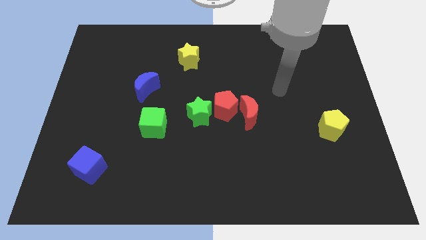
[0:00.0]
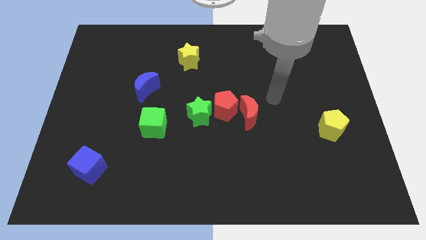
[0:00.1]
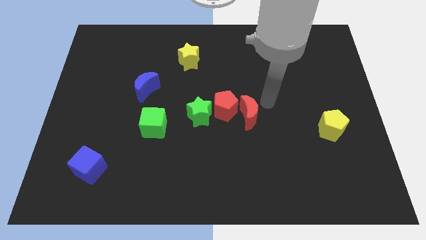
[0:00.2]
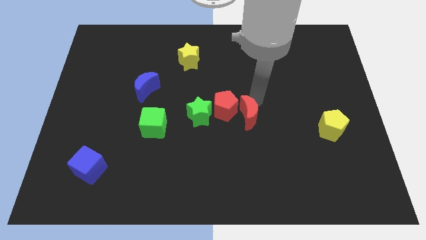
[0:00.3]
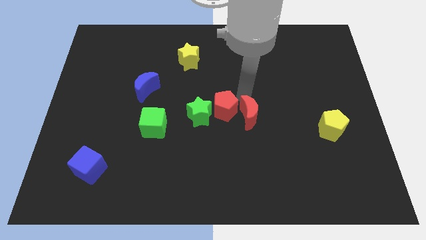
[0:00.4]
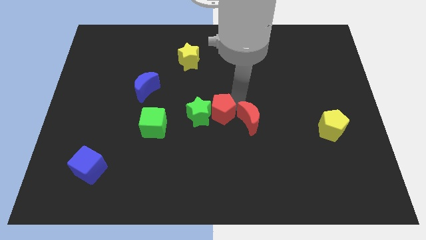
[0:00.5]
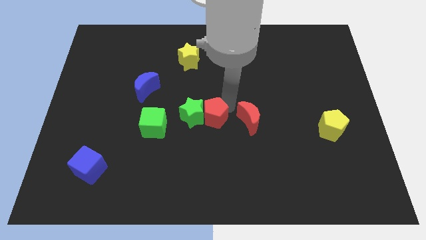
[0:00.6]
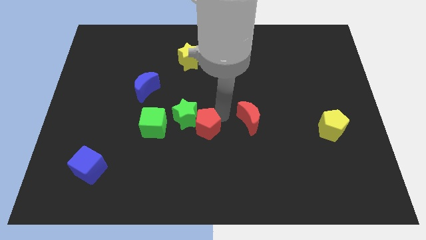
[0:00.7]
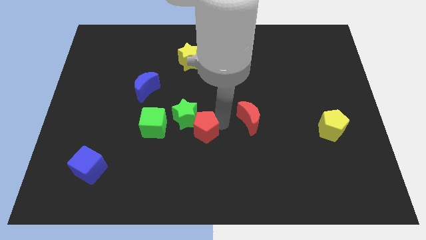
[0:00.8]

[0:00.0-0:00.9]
separate the red moon from the red pentagon

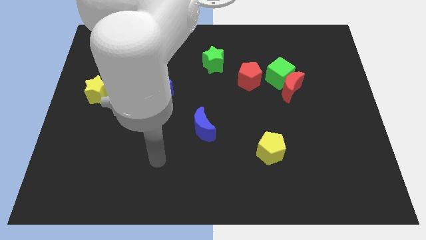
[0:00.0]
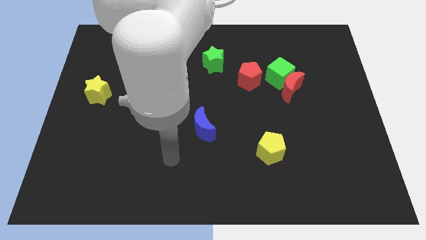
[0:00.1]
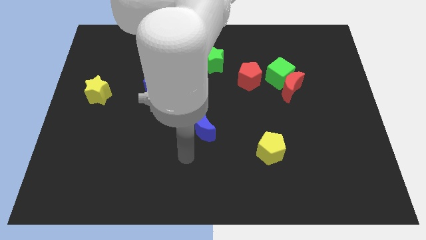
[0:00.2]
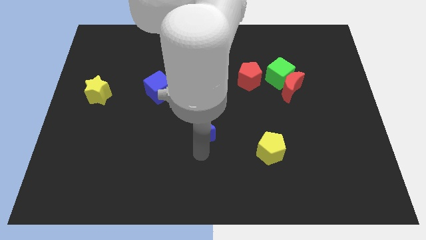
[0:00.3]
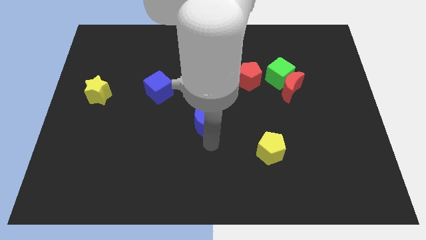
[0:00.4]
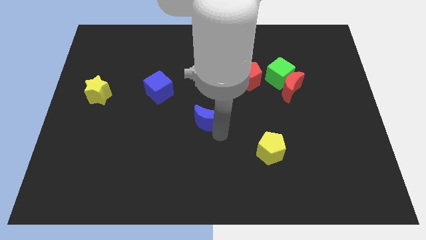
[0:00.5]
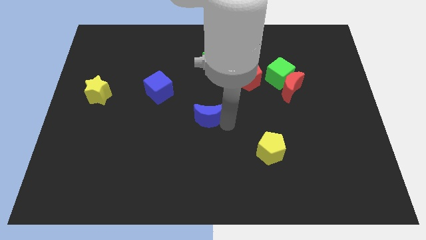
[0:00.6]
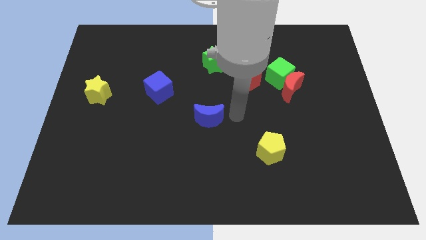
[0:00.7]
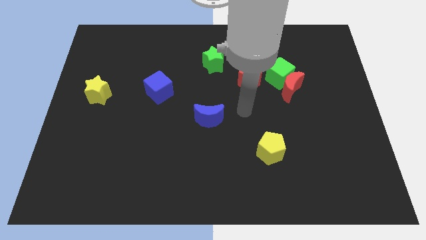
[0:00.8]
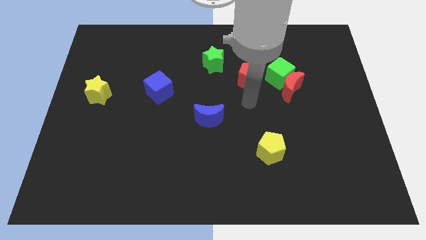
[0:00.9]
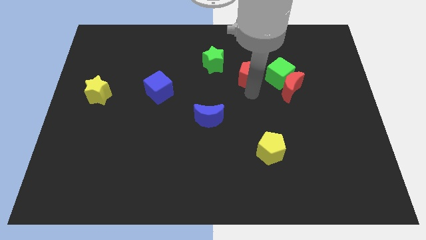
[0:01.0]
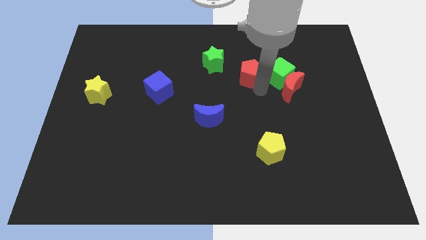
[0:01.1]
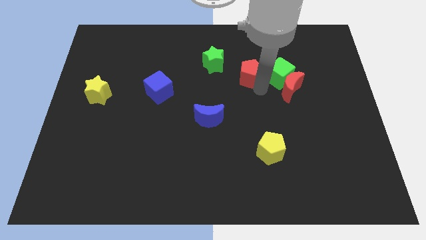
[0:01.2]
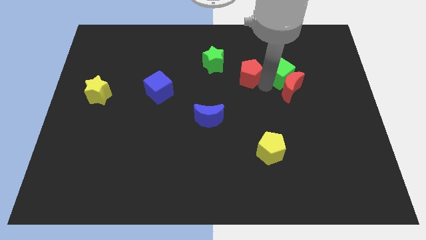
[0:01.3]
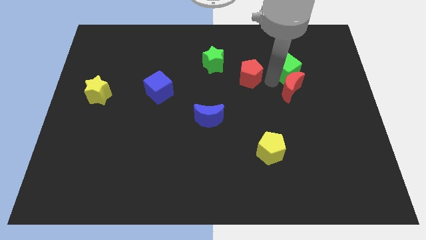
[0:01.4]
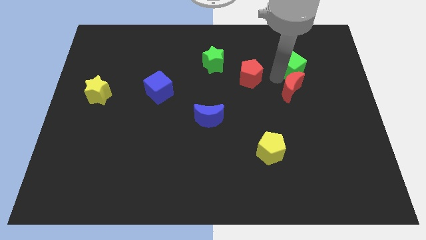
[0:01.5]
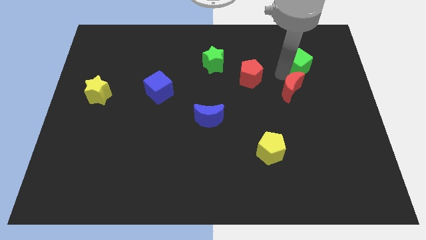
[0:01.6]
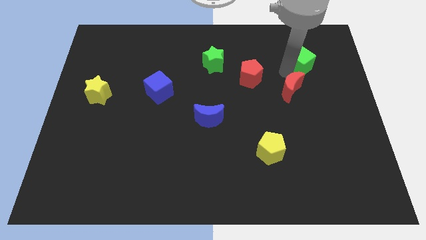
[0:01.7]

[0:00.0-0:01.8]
pull the green cube apart from the red moon and red pentagon

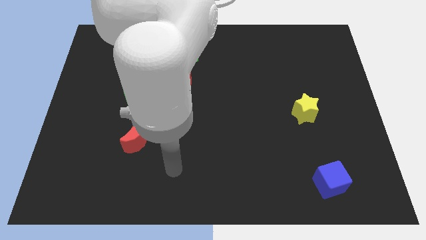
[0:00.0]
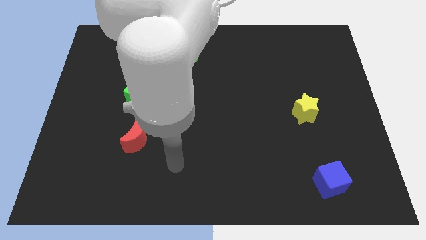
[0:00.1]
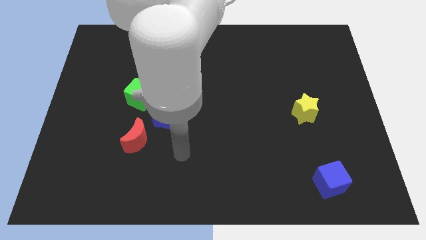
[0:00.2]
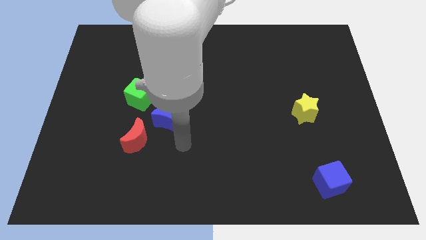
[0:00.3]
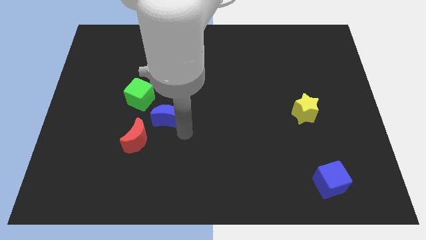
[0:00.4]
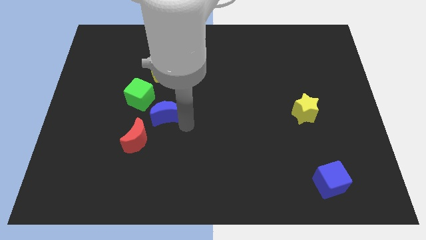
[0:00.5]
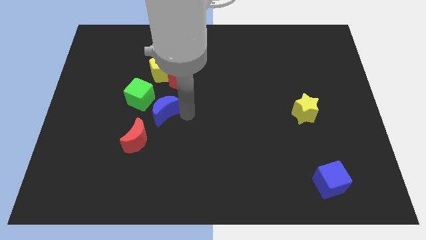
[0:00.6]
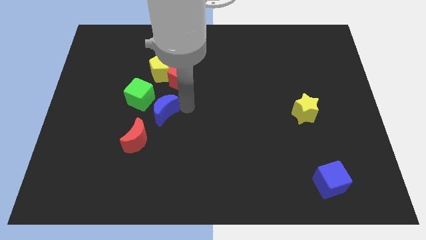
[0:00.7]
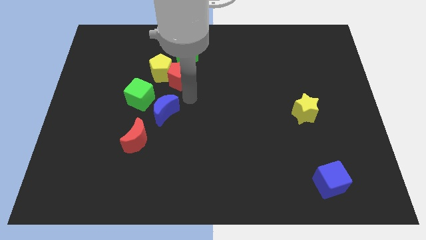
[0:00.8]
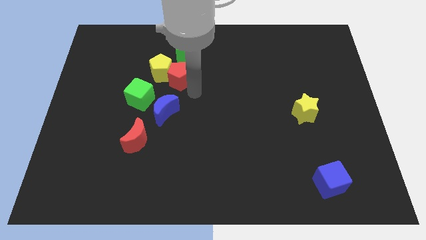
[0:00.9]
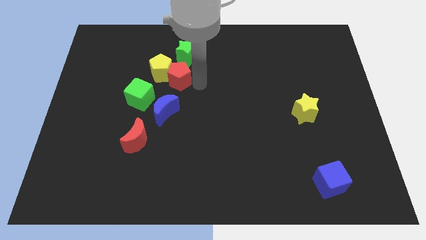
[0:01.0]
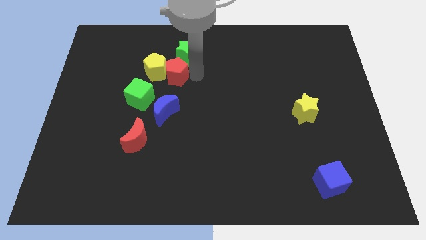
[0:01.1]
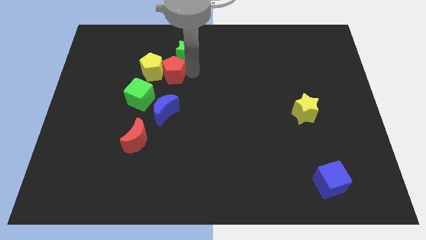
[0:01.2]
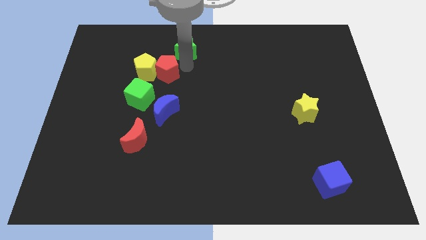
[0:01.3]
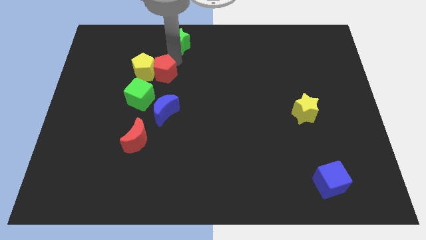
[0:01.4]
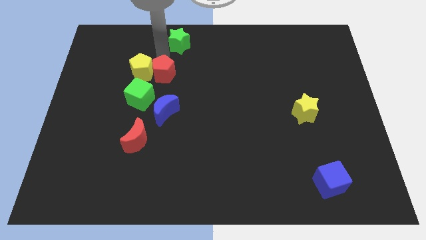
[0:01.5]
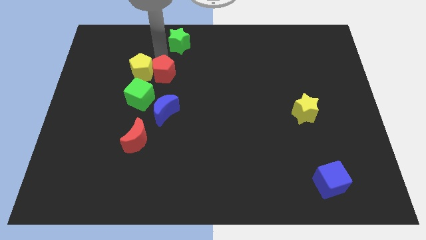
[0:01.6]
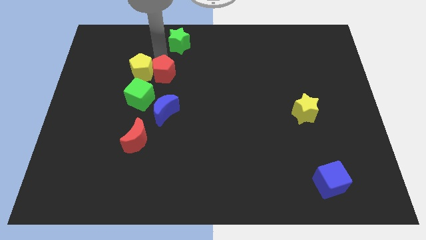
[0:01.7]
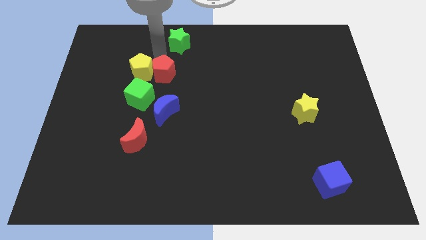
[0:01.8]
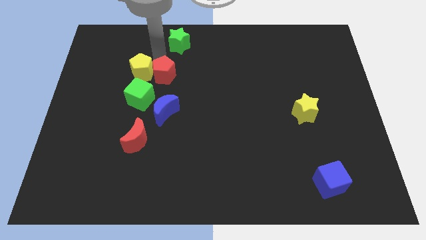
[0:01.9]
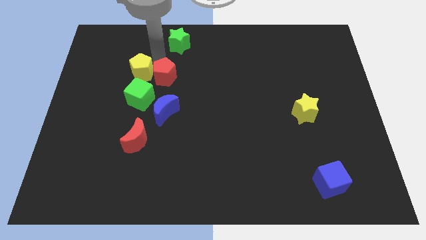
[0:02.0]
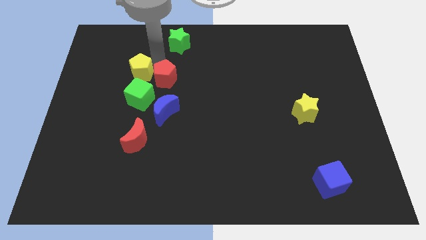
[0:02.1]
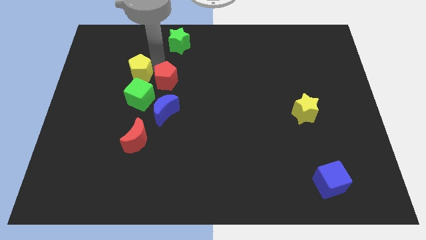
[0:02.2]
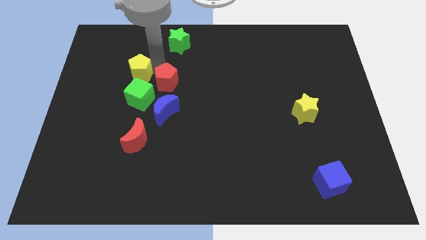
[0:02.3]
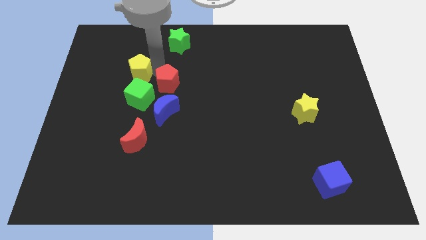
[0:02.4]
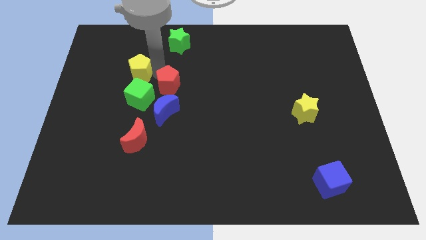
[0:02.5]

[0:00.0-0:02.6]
separate the red pentagon from the yellow pentagon and green star

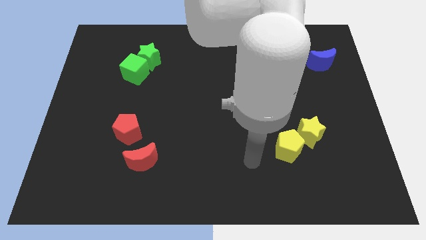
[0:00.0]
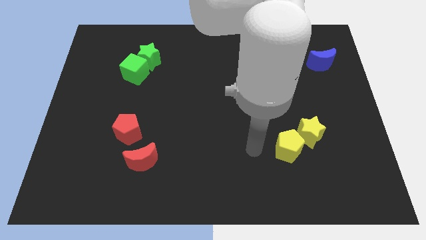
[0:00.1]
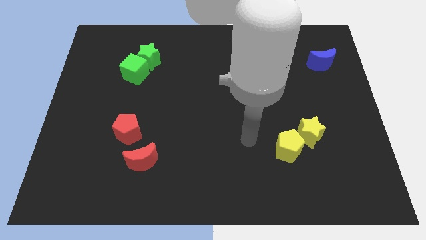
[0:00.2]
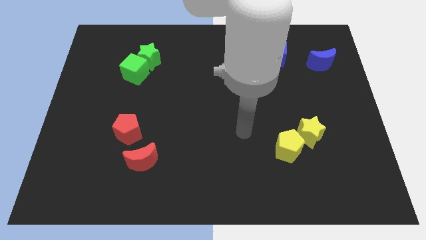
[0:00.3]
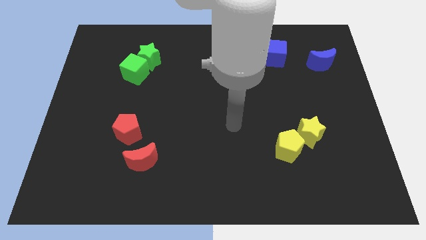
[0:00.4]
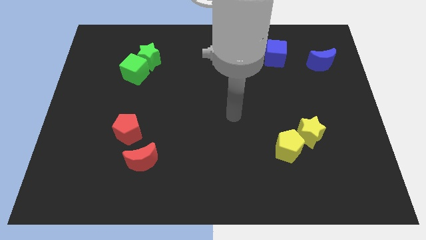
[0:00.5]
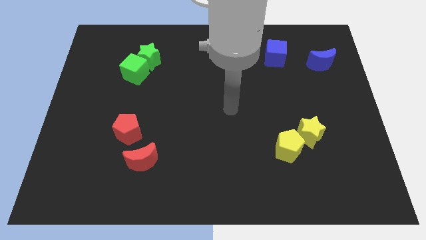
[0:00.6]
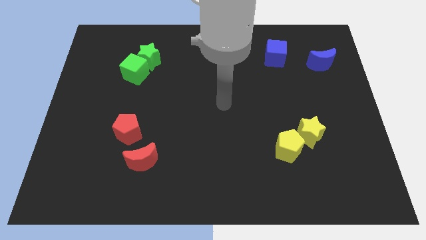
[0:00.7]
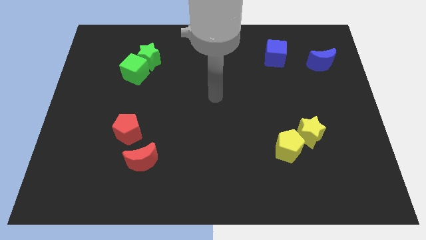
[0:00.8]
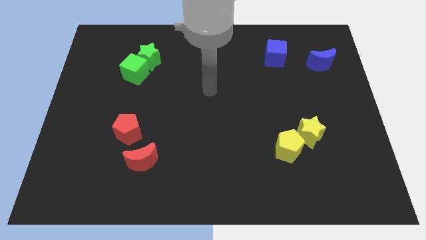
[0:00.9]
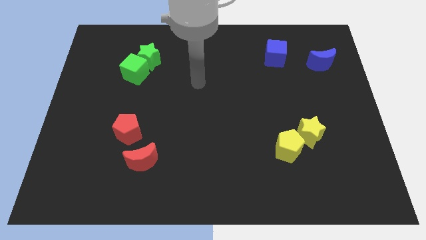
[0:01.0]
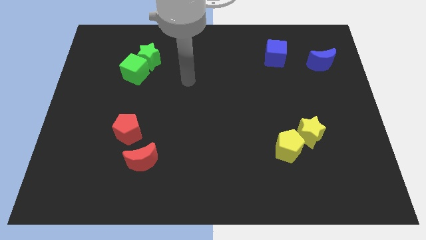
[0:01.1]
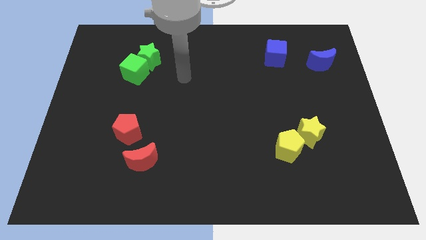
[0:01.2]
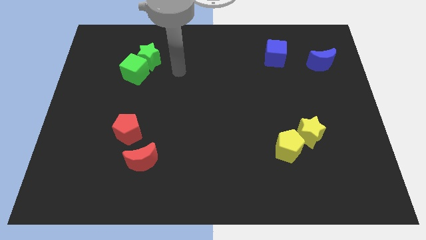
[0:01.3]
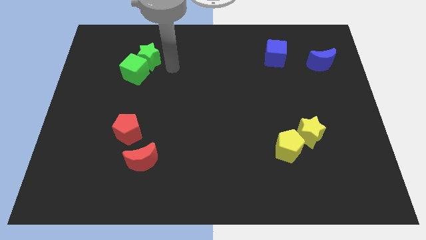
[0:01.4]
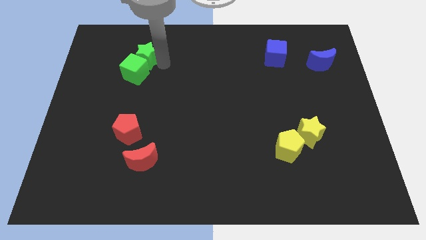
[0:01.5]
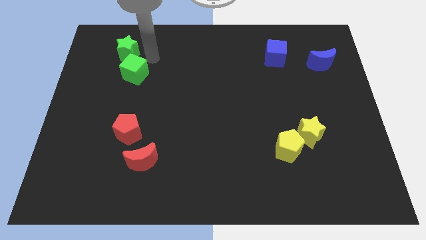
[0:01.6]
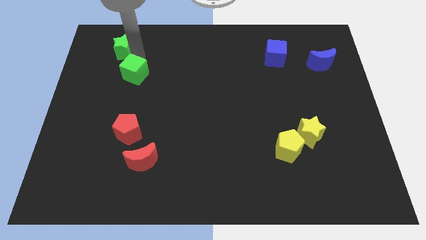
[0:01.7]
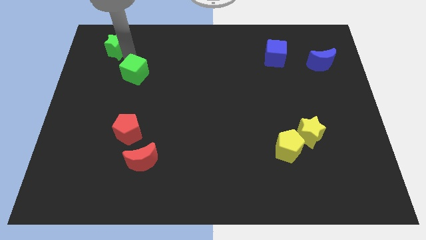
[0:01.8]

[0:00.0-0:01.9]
move the green cube away from the green star

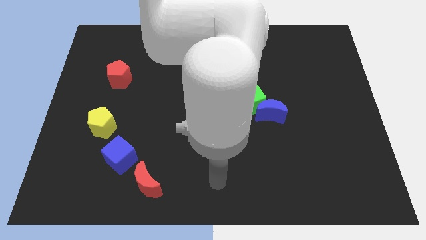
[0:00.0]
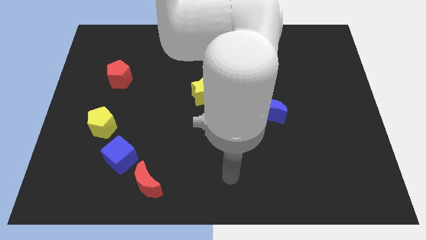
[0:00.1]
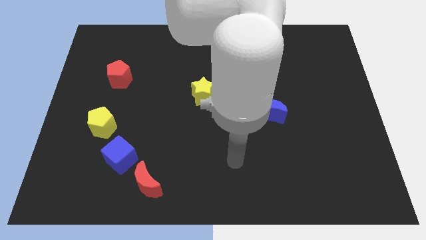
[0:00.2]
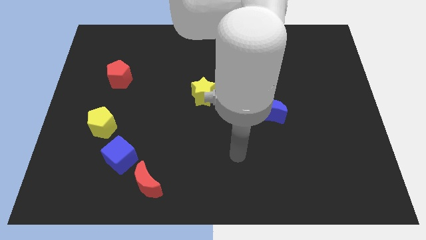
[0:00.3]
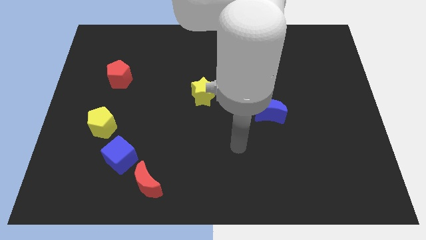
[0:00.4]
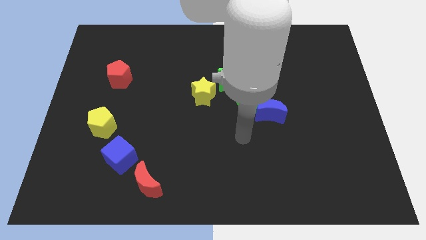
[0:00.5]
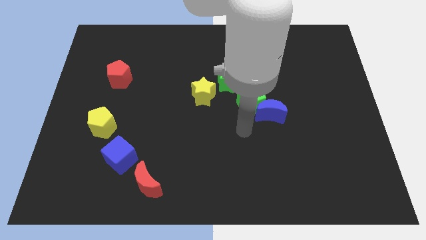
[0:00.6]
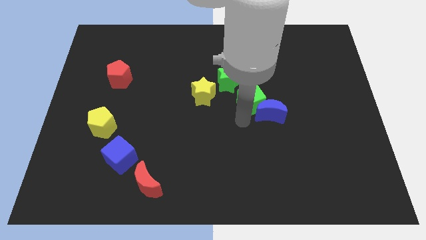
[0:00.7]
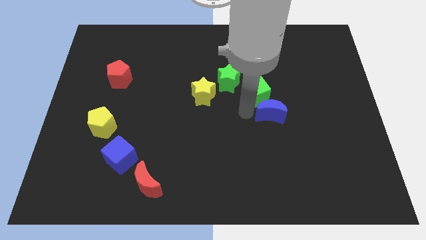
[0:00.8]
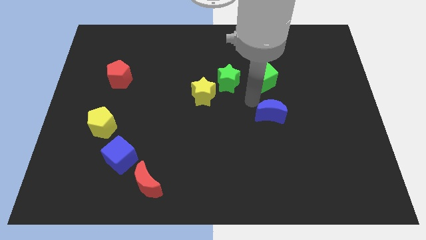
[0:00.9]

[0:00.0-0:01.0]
pull the blue moon apart from the green cube

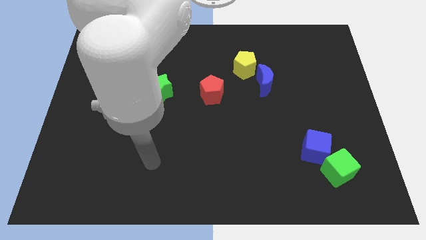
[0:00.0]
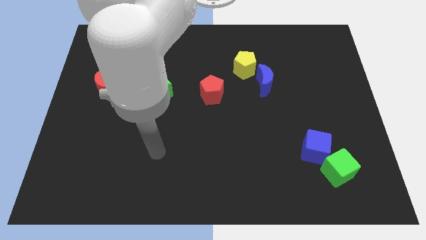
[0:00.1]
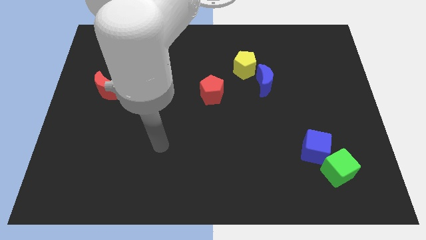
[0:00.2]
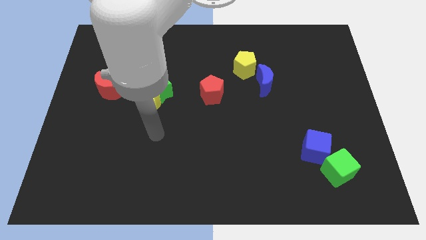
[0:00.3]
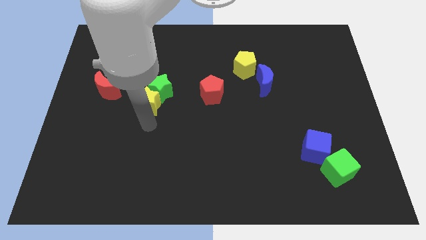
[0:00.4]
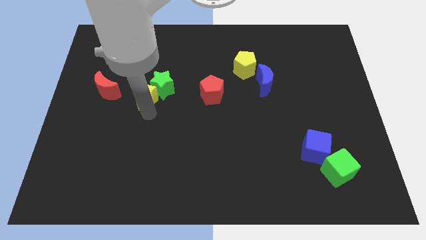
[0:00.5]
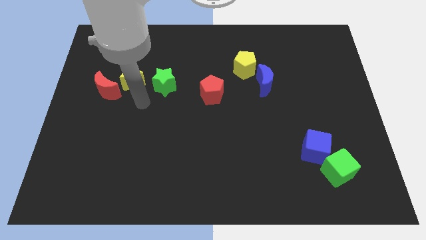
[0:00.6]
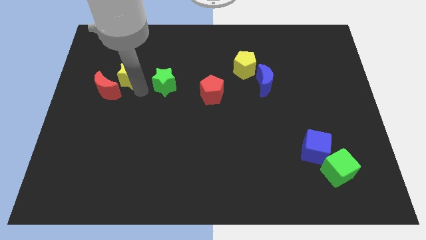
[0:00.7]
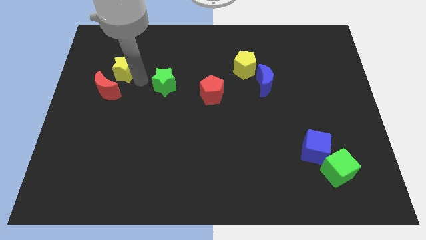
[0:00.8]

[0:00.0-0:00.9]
move the green star away from the yellow star
